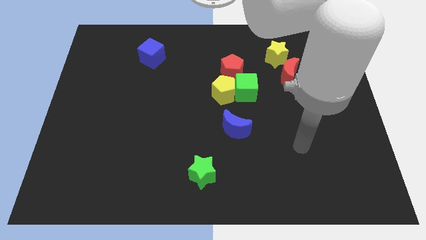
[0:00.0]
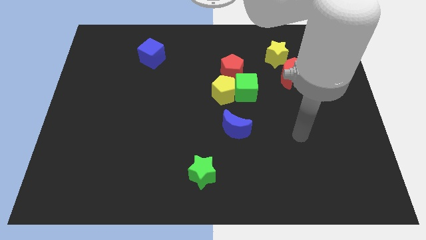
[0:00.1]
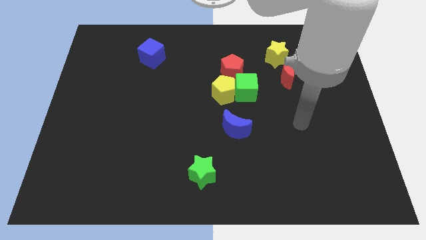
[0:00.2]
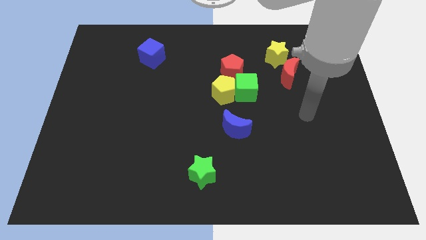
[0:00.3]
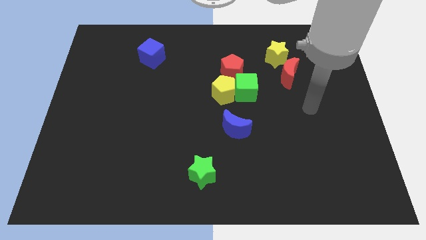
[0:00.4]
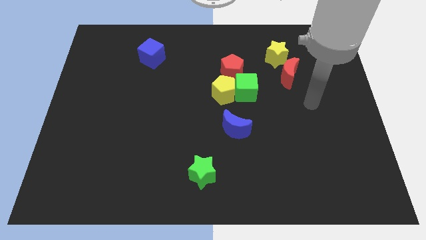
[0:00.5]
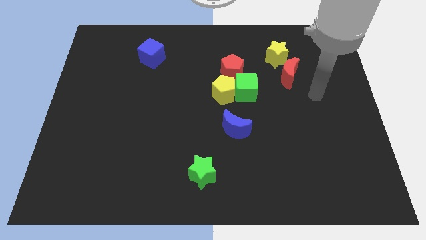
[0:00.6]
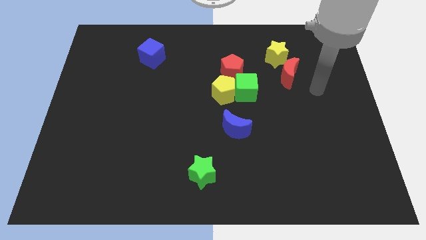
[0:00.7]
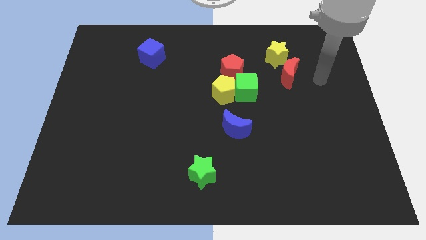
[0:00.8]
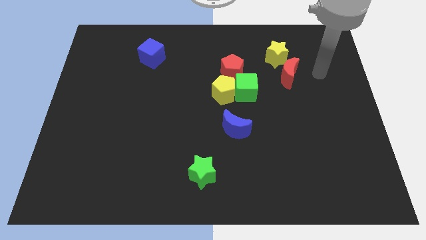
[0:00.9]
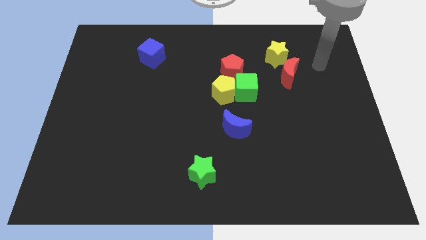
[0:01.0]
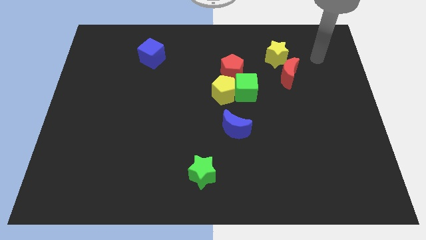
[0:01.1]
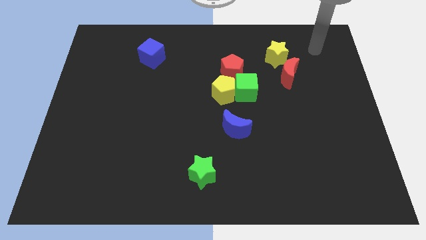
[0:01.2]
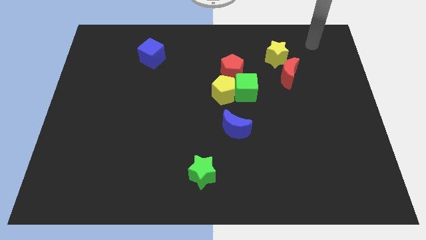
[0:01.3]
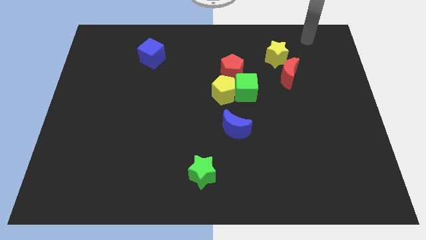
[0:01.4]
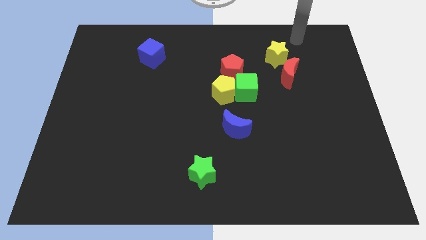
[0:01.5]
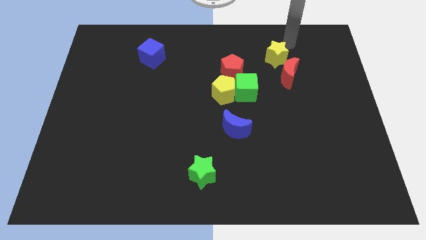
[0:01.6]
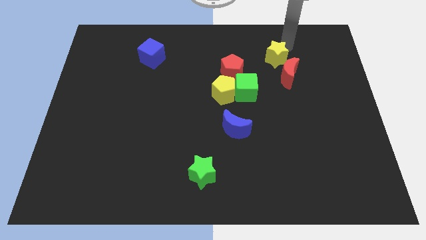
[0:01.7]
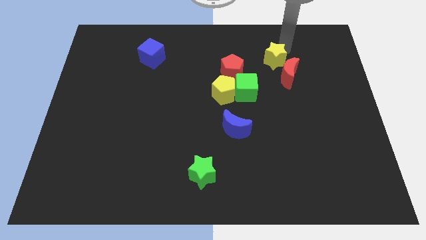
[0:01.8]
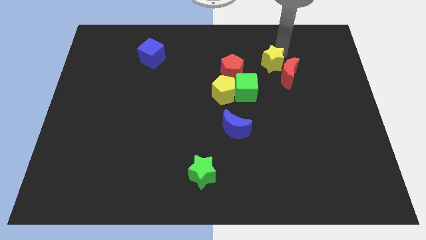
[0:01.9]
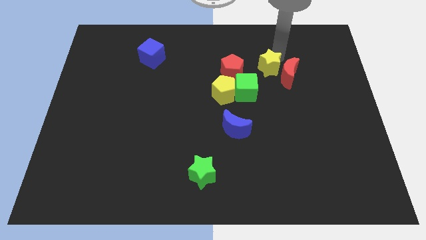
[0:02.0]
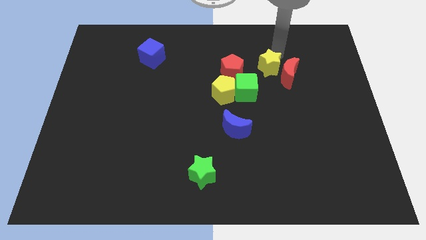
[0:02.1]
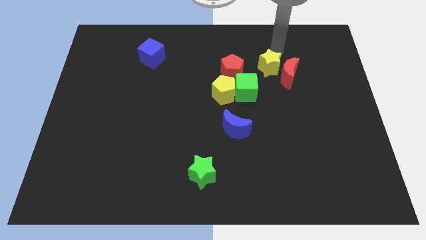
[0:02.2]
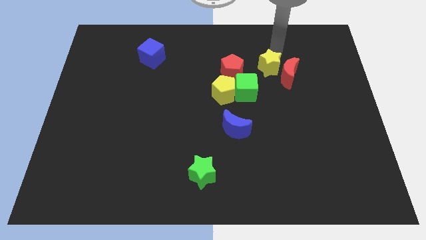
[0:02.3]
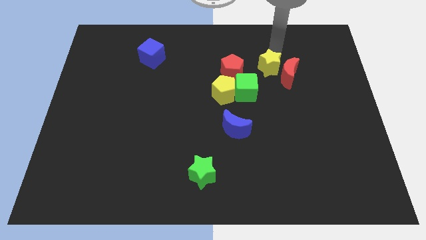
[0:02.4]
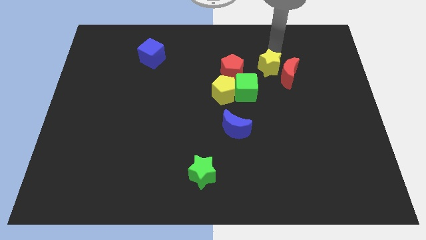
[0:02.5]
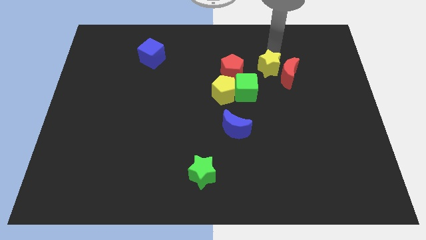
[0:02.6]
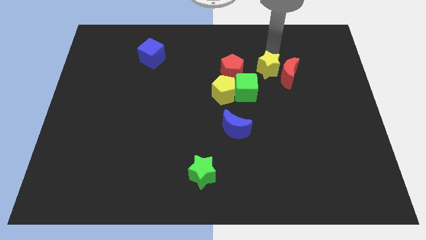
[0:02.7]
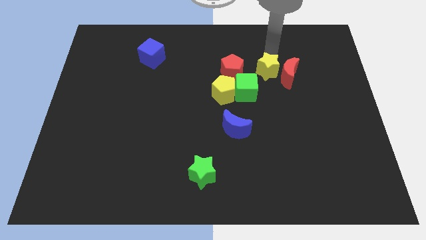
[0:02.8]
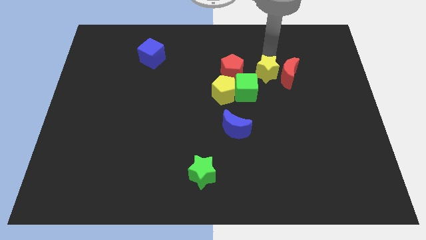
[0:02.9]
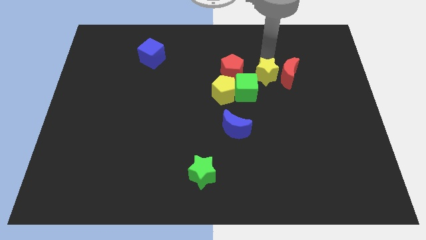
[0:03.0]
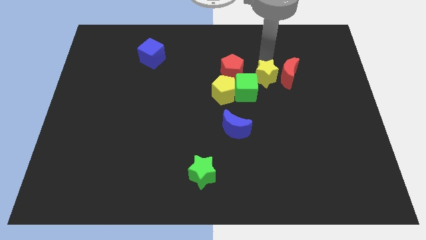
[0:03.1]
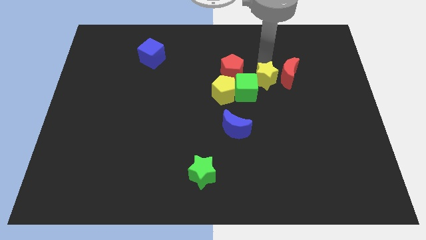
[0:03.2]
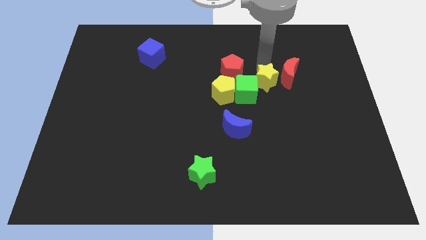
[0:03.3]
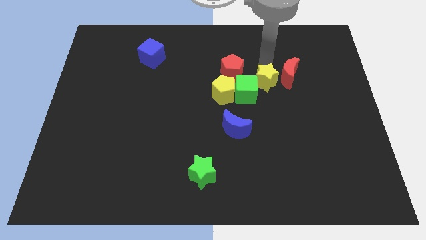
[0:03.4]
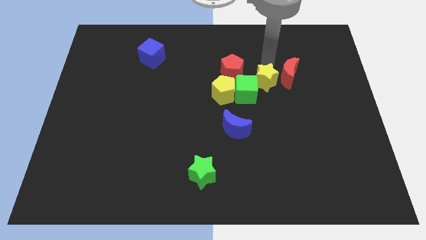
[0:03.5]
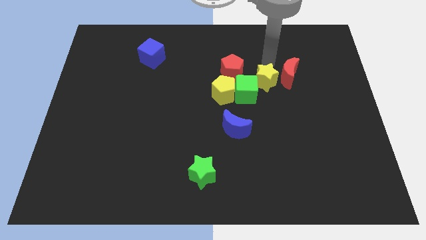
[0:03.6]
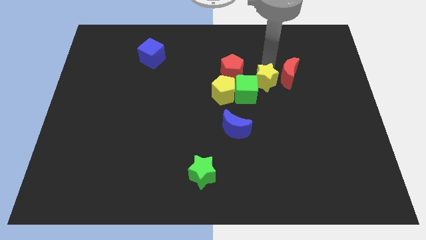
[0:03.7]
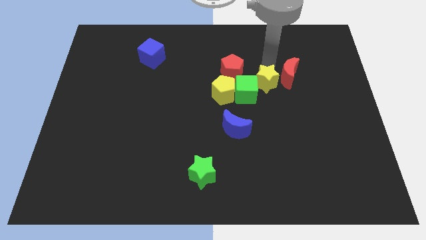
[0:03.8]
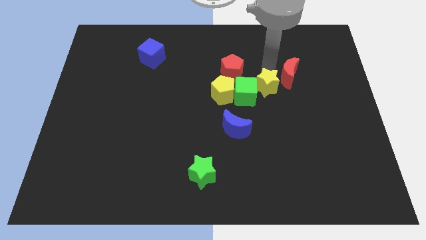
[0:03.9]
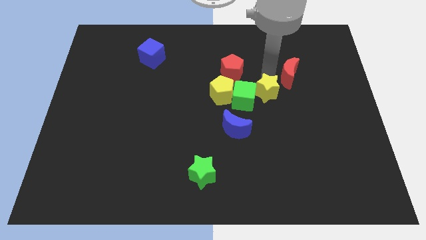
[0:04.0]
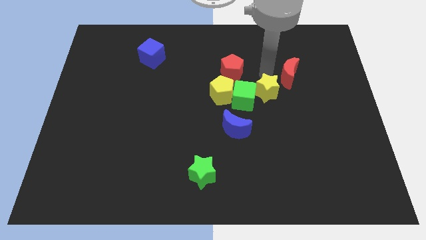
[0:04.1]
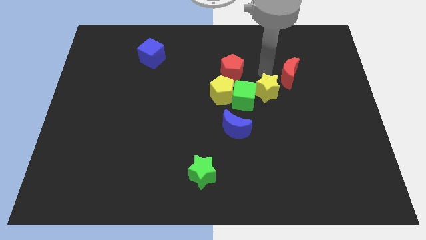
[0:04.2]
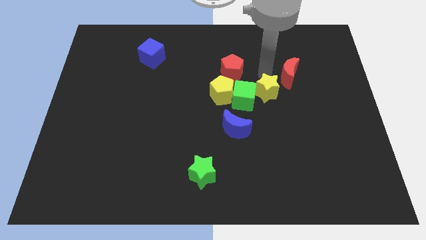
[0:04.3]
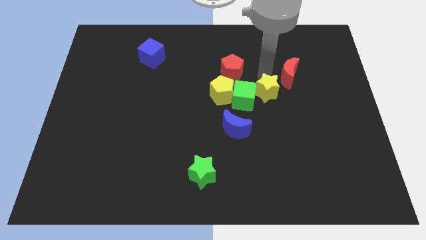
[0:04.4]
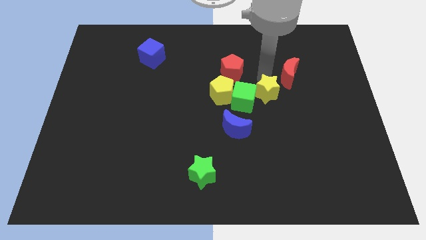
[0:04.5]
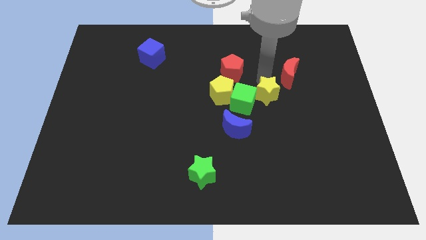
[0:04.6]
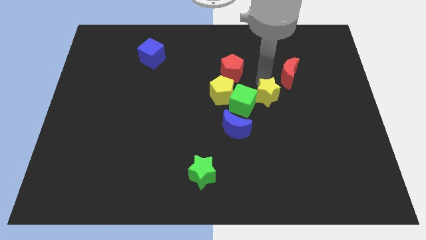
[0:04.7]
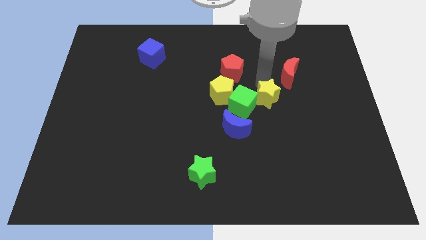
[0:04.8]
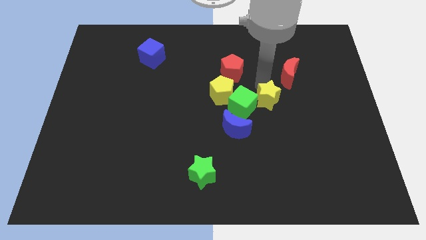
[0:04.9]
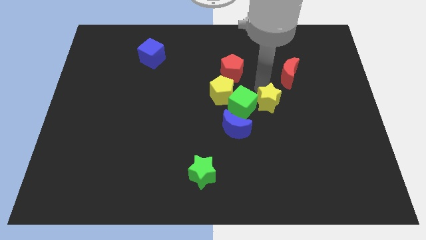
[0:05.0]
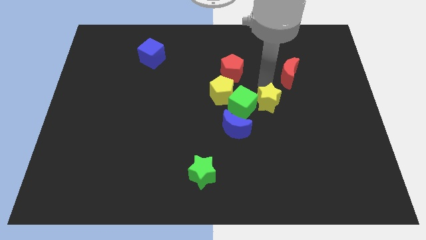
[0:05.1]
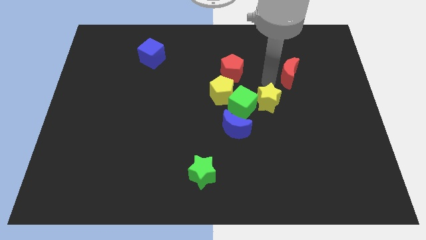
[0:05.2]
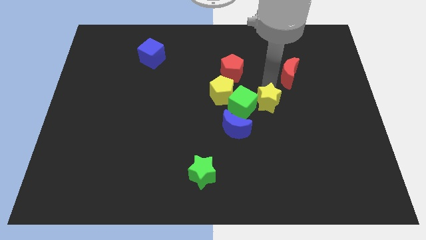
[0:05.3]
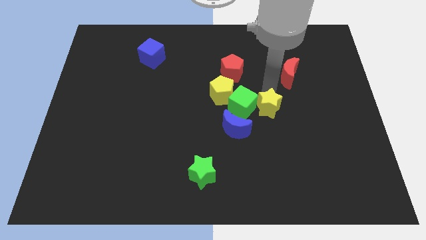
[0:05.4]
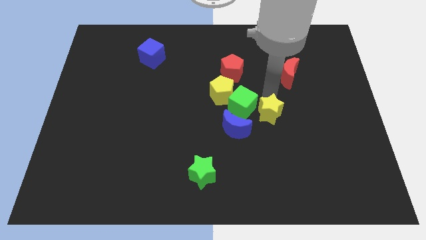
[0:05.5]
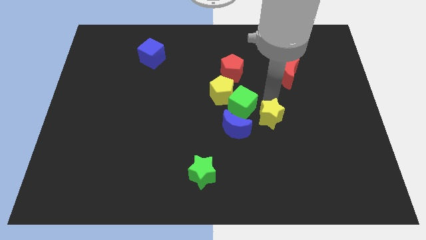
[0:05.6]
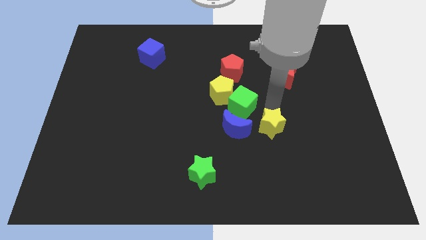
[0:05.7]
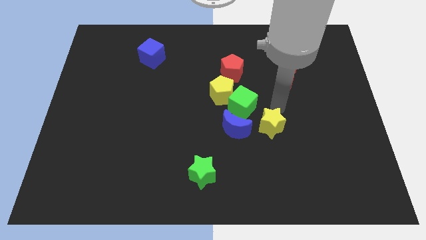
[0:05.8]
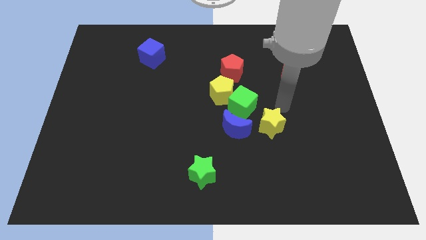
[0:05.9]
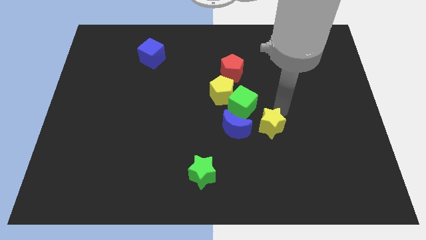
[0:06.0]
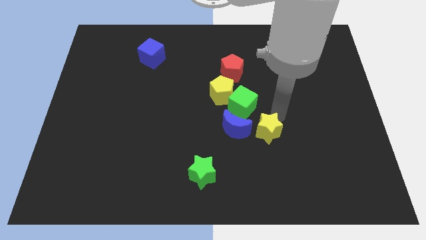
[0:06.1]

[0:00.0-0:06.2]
push the yellow star to the bottom right side of the blue moon
